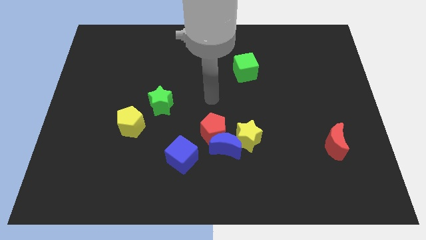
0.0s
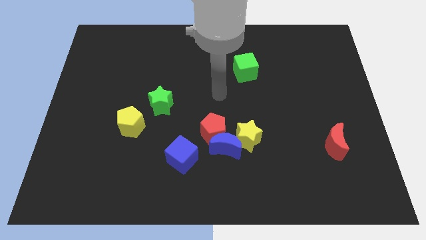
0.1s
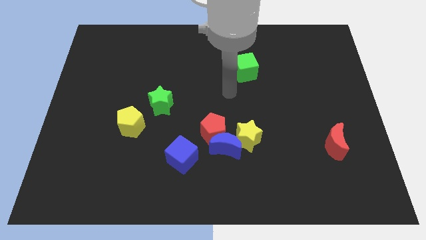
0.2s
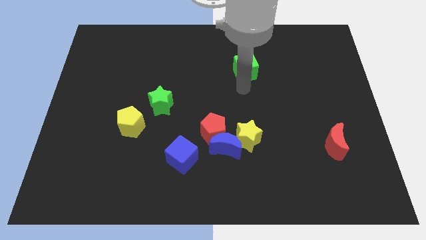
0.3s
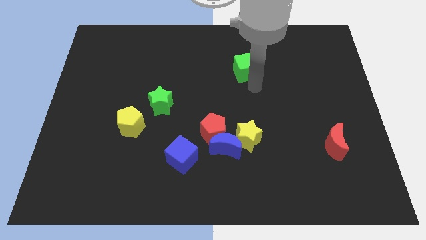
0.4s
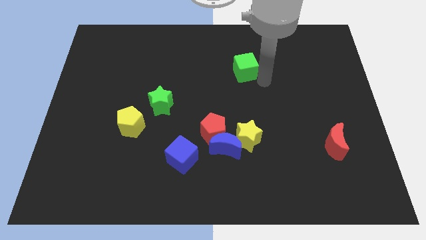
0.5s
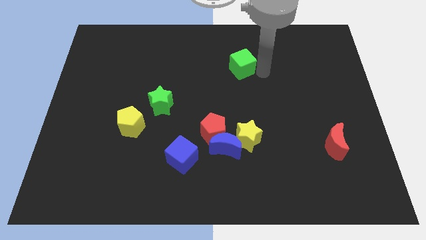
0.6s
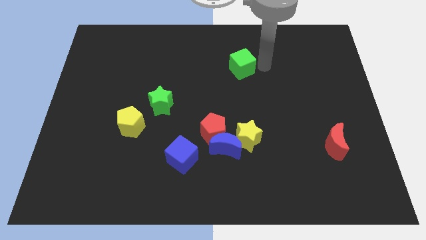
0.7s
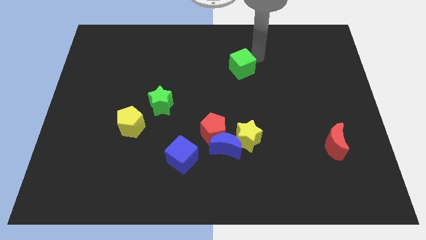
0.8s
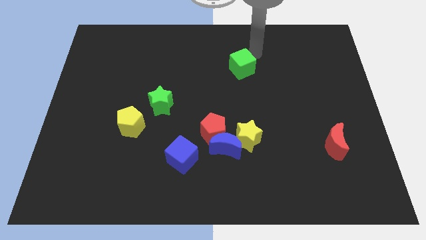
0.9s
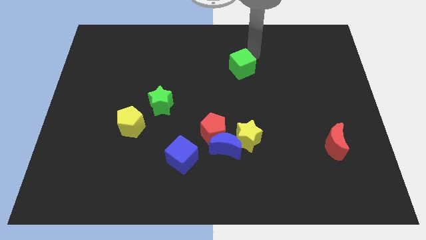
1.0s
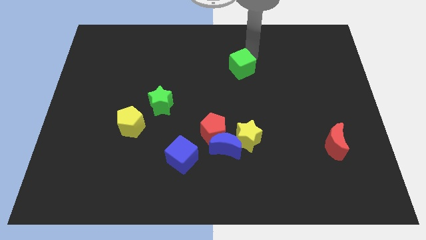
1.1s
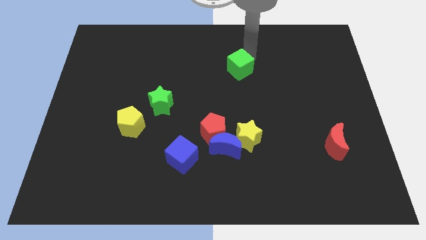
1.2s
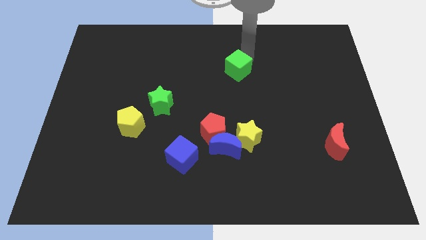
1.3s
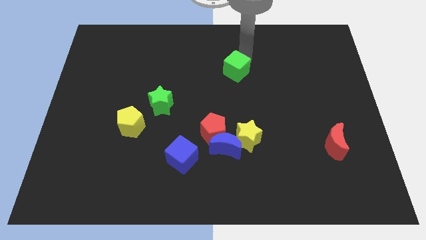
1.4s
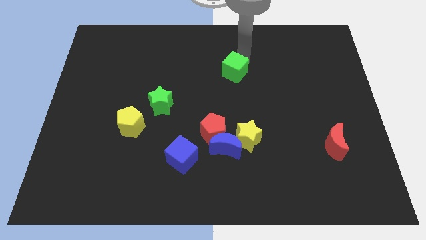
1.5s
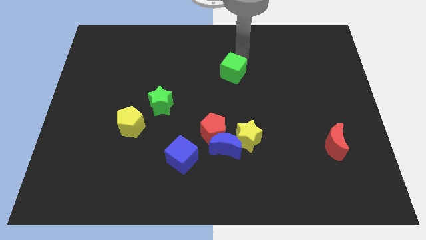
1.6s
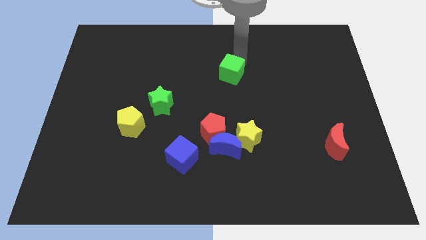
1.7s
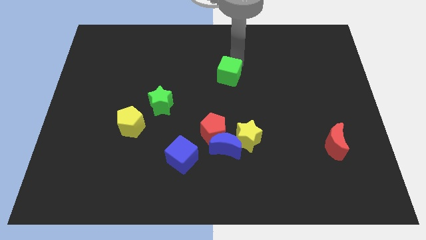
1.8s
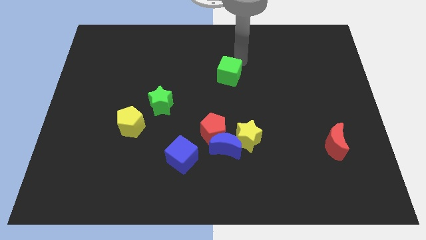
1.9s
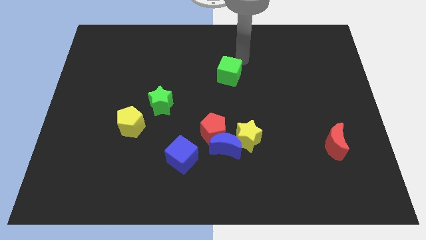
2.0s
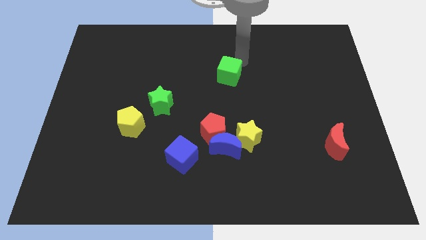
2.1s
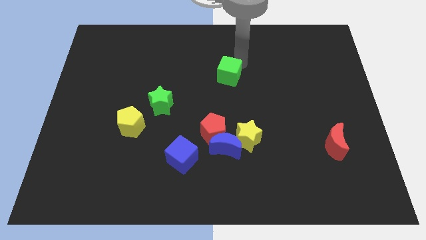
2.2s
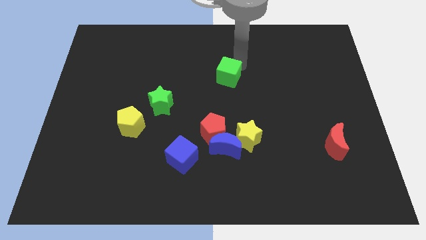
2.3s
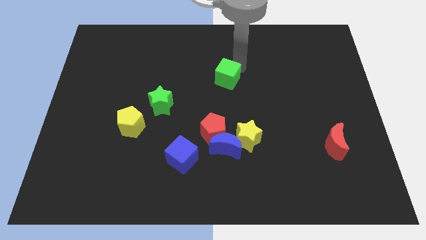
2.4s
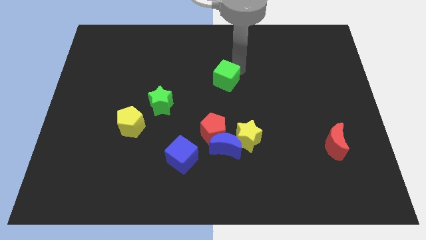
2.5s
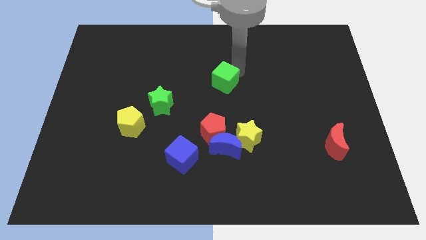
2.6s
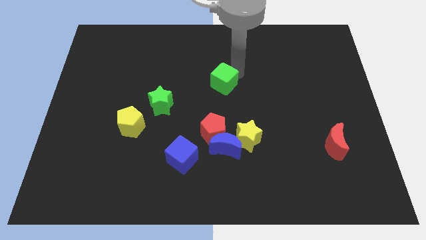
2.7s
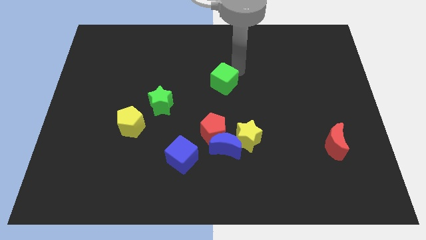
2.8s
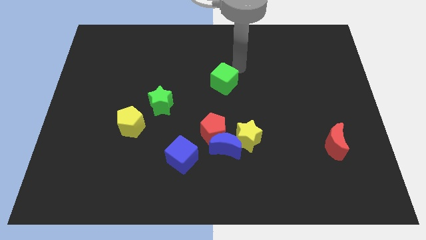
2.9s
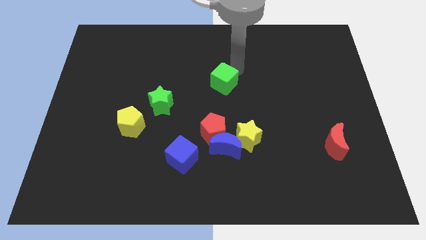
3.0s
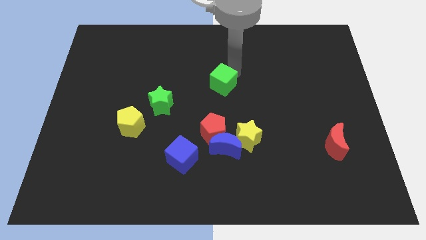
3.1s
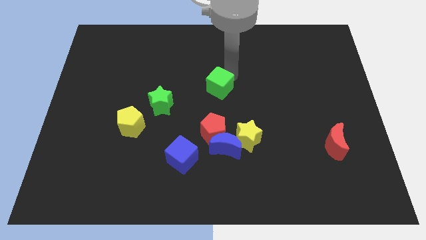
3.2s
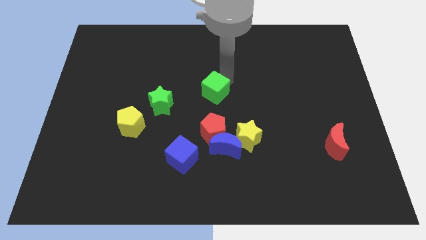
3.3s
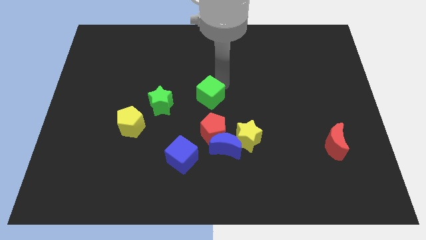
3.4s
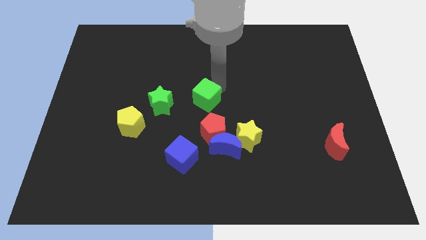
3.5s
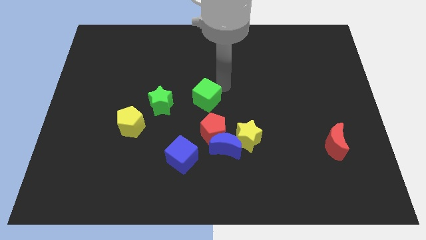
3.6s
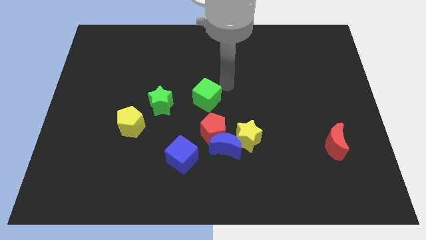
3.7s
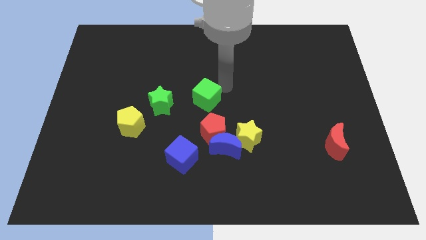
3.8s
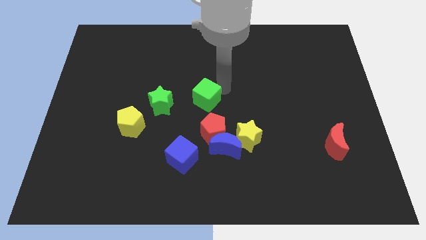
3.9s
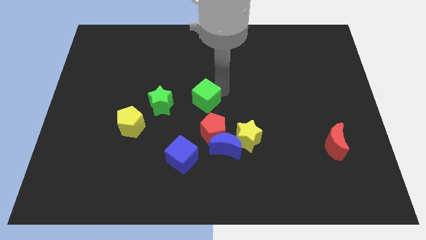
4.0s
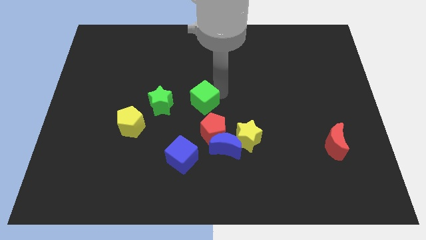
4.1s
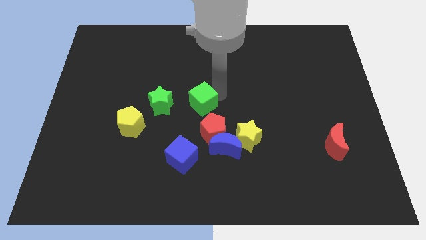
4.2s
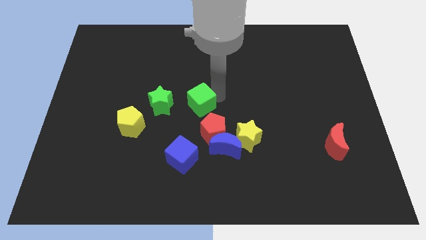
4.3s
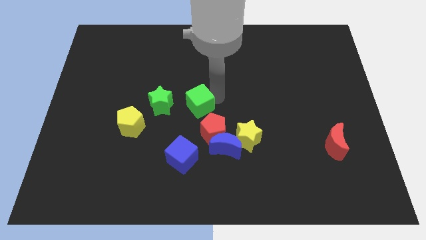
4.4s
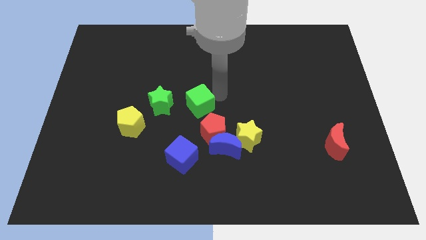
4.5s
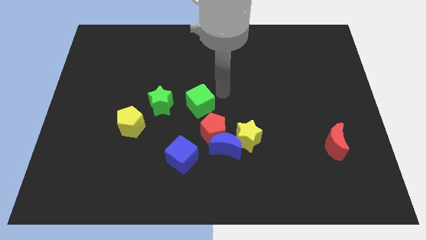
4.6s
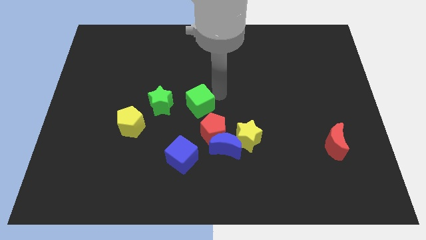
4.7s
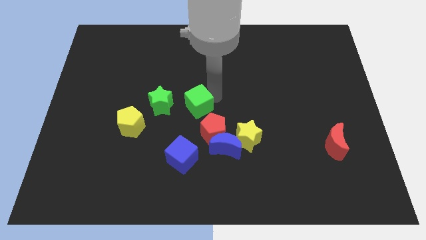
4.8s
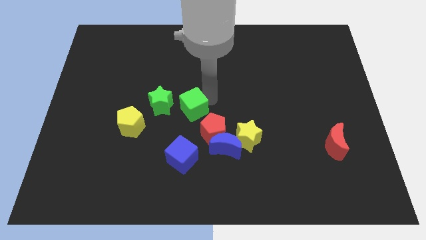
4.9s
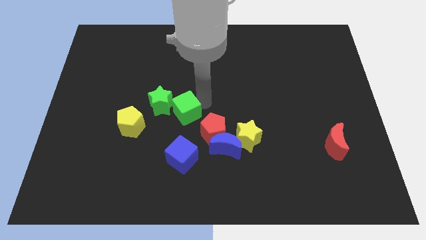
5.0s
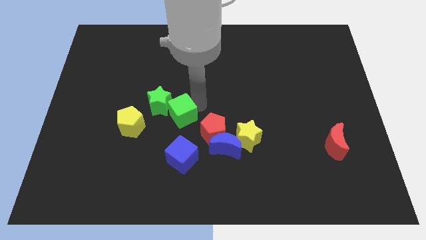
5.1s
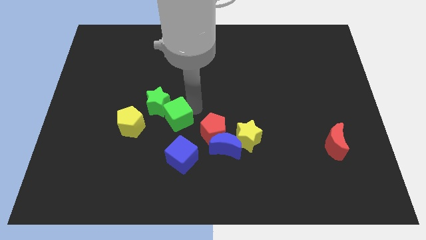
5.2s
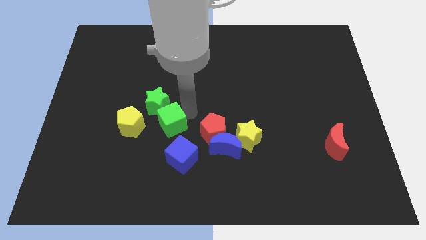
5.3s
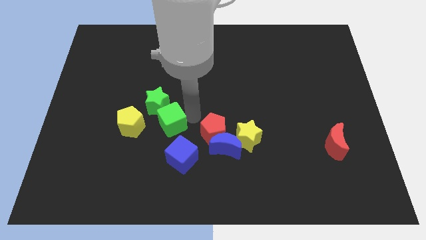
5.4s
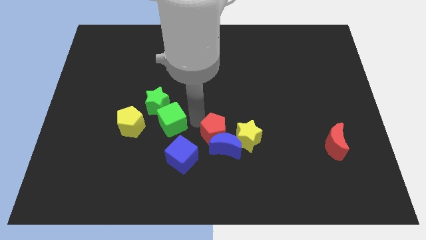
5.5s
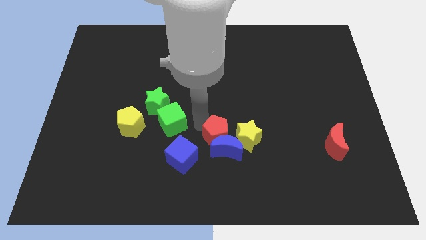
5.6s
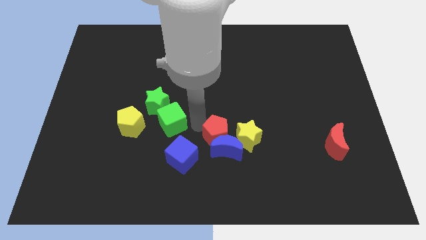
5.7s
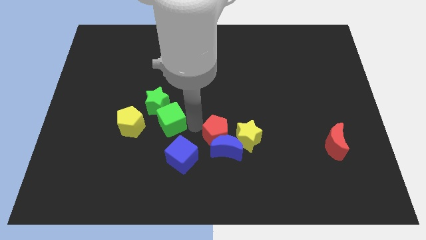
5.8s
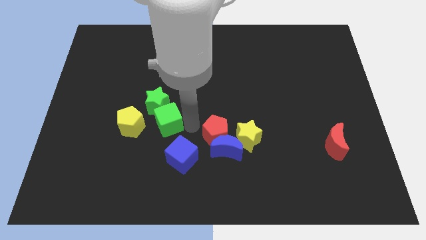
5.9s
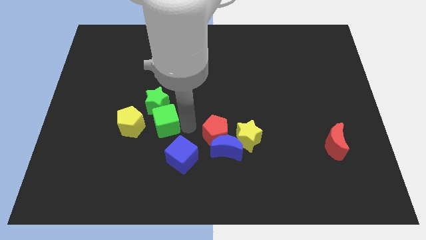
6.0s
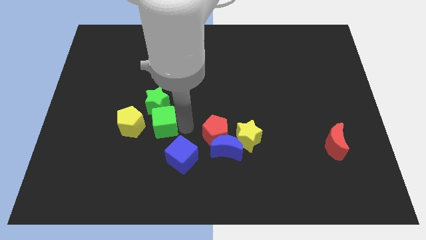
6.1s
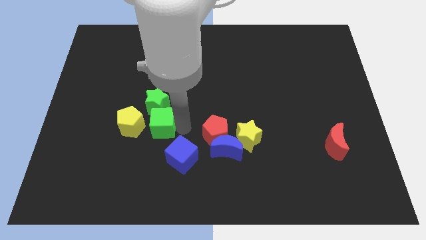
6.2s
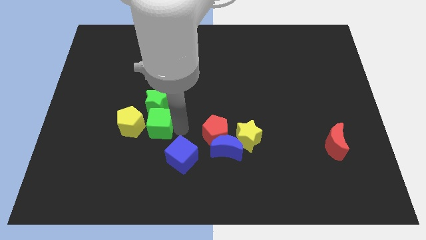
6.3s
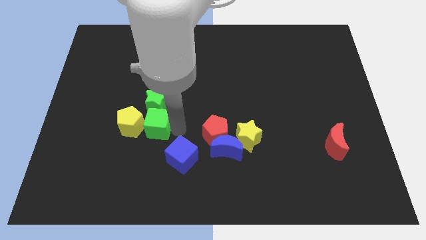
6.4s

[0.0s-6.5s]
push the green cube to the yellow pentagon

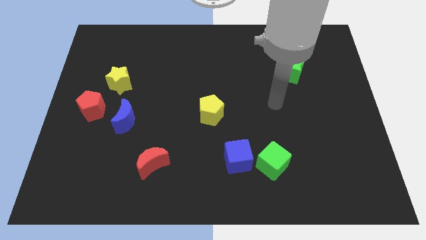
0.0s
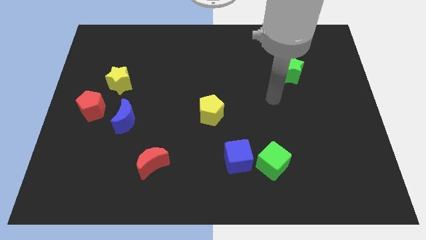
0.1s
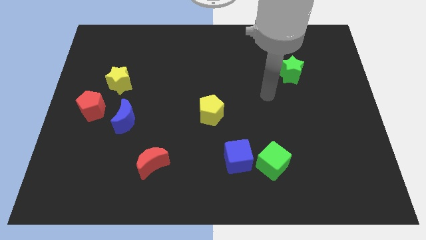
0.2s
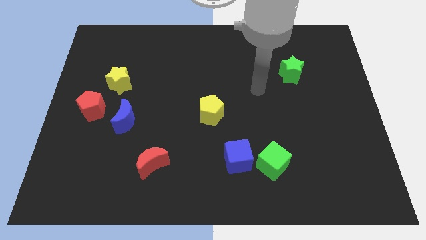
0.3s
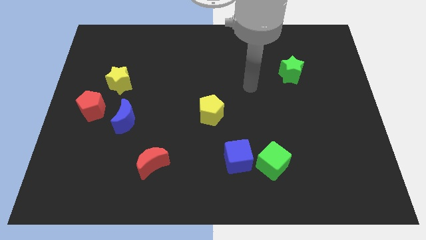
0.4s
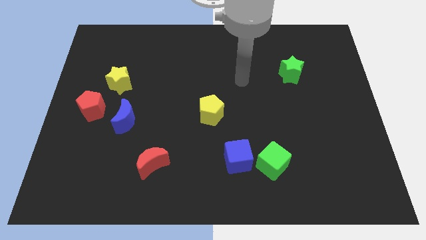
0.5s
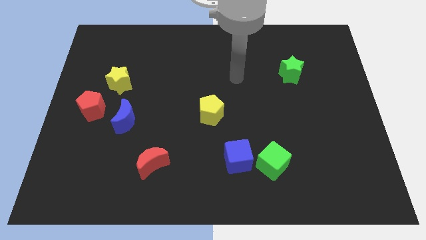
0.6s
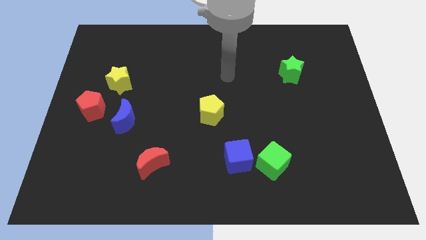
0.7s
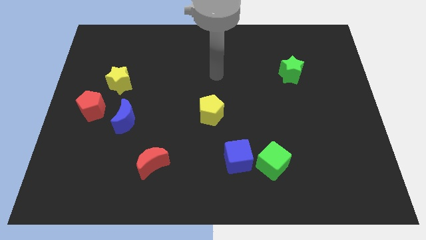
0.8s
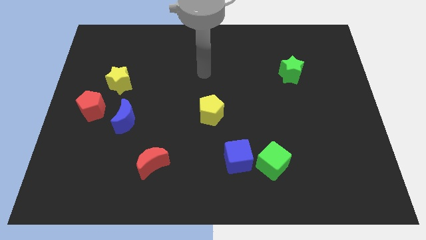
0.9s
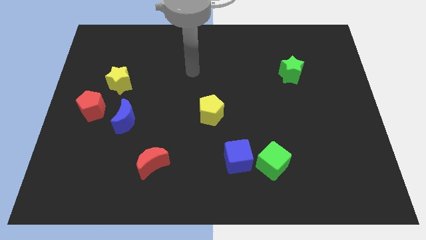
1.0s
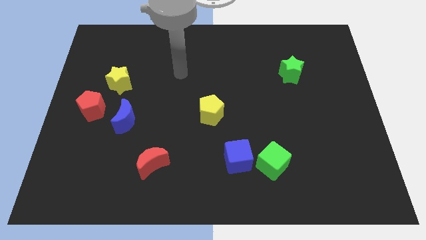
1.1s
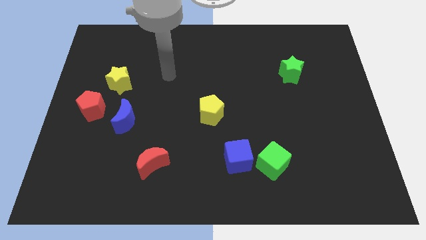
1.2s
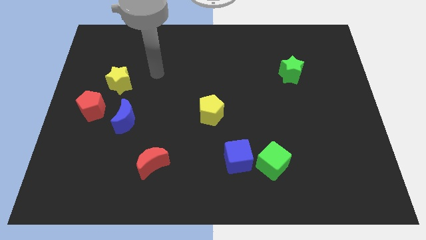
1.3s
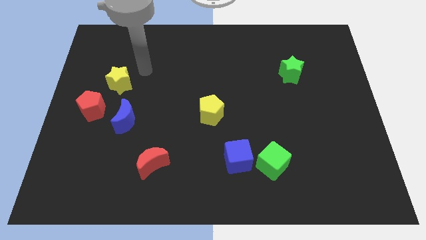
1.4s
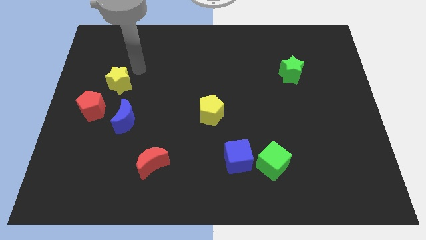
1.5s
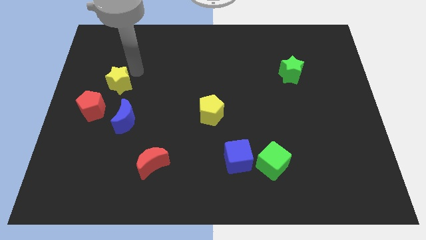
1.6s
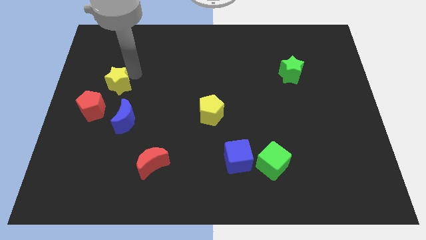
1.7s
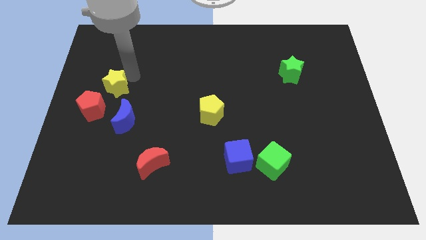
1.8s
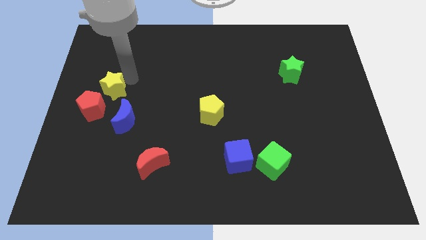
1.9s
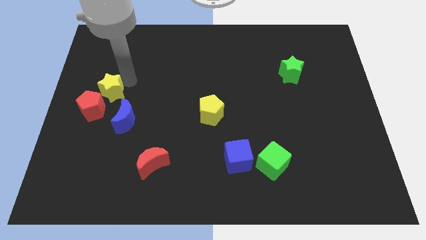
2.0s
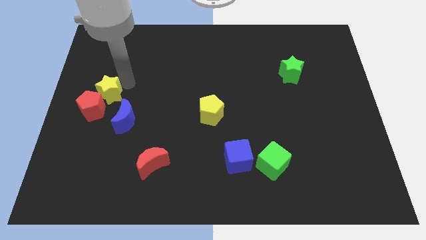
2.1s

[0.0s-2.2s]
put the yellow star to the red pentagon
